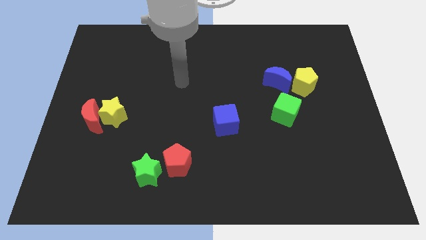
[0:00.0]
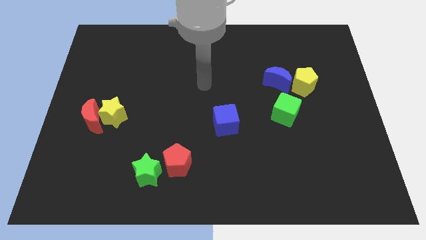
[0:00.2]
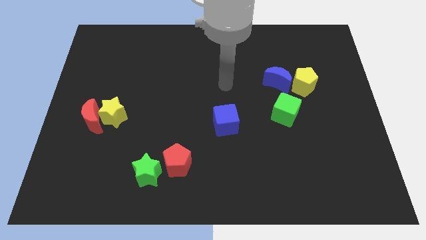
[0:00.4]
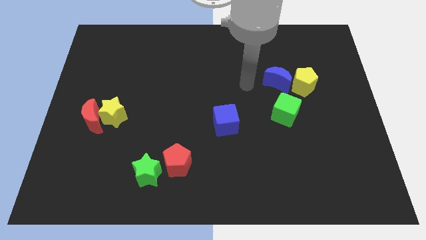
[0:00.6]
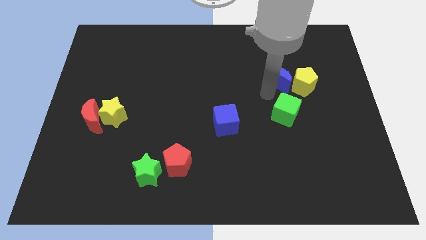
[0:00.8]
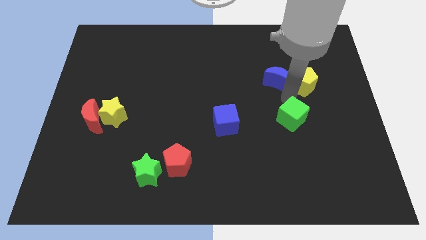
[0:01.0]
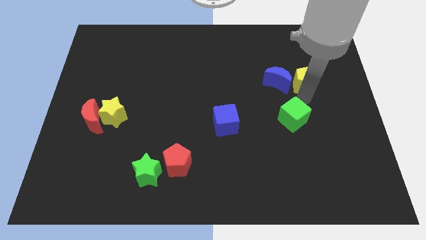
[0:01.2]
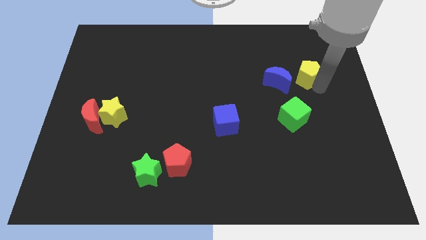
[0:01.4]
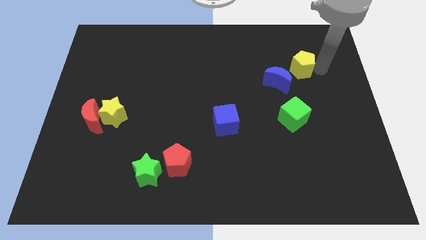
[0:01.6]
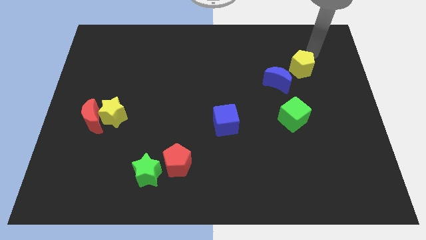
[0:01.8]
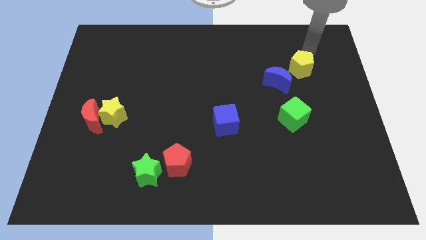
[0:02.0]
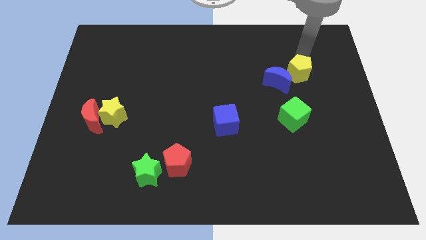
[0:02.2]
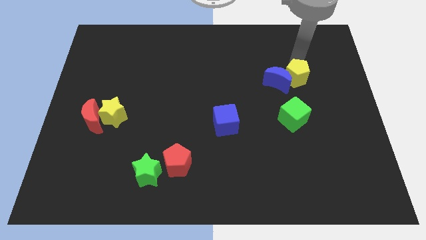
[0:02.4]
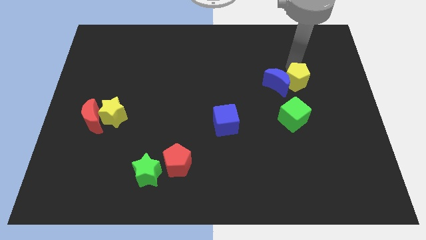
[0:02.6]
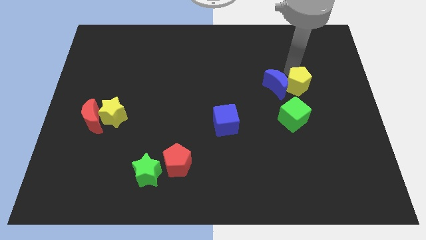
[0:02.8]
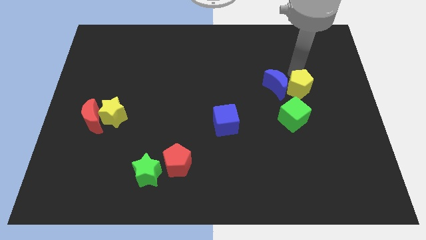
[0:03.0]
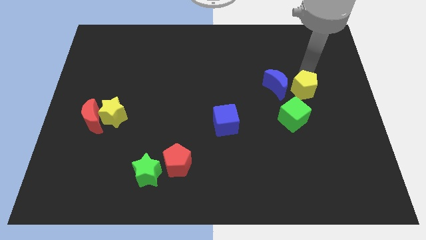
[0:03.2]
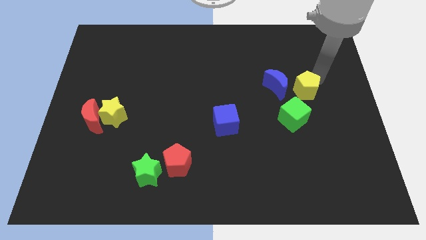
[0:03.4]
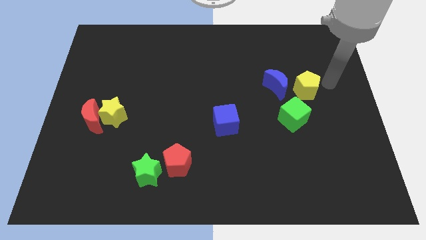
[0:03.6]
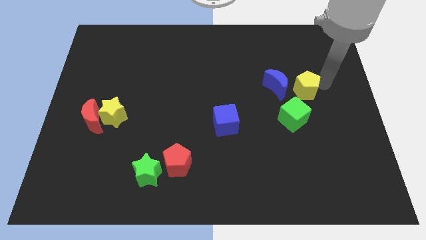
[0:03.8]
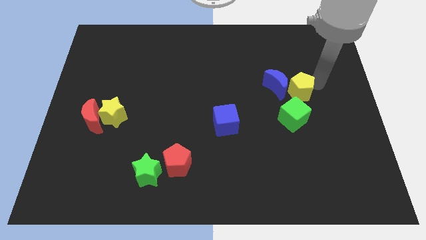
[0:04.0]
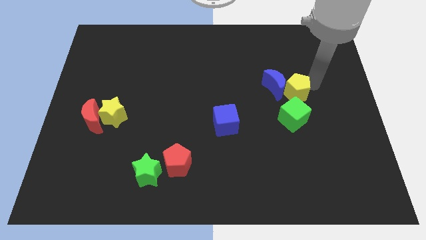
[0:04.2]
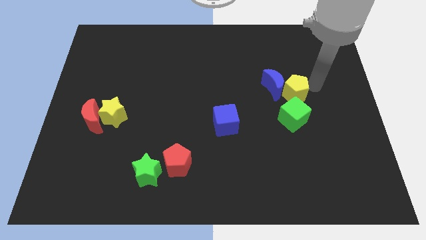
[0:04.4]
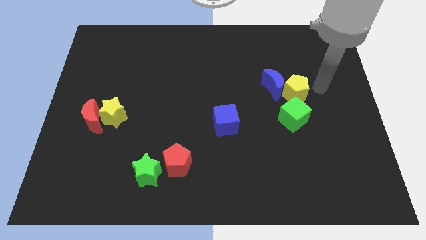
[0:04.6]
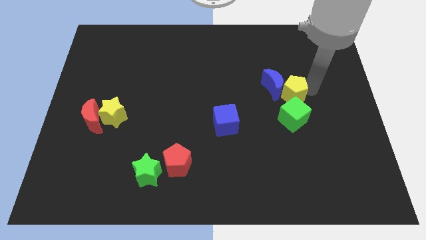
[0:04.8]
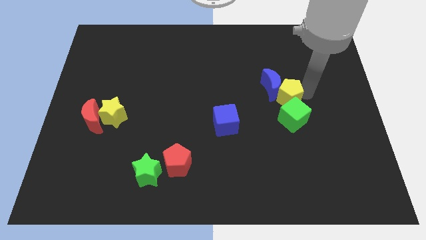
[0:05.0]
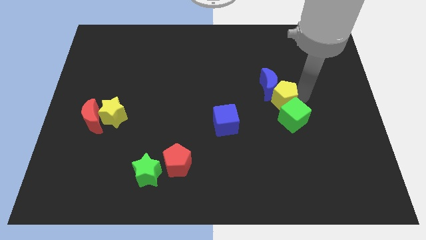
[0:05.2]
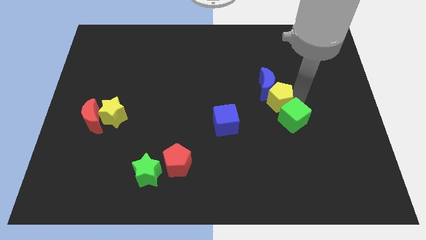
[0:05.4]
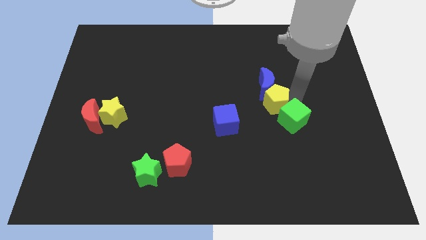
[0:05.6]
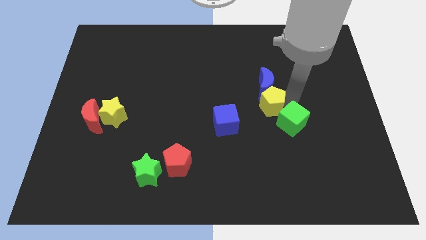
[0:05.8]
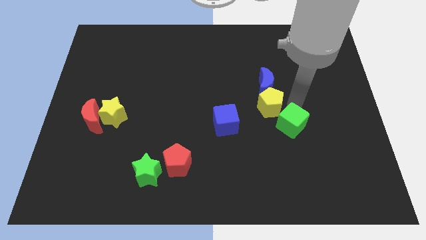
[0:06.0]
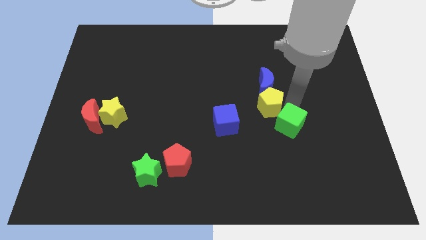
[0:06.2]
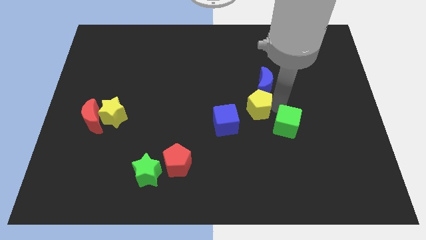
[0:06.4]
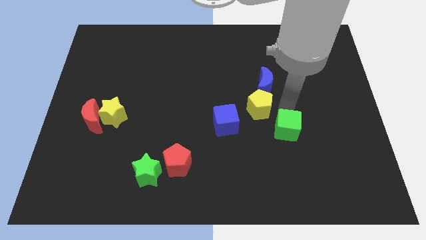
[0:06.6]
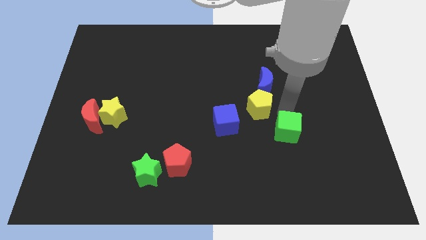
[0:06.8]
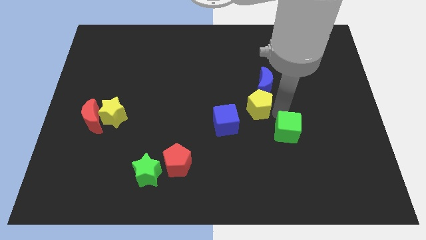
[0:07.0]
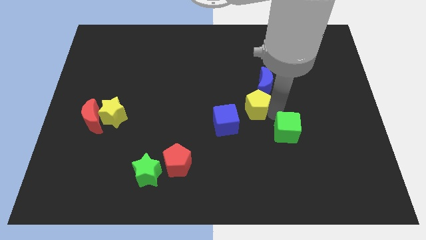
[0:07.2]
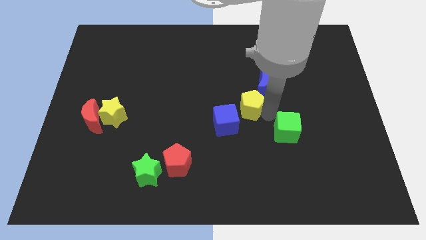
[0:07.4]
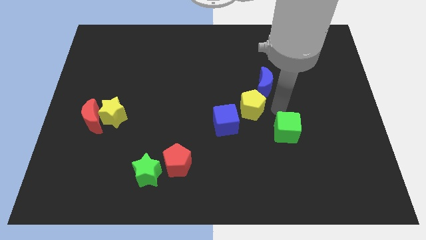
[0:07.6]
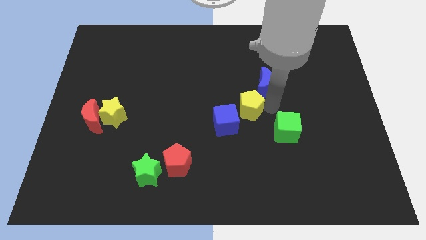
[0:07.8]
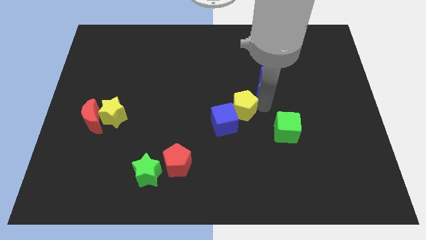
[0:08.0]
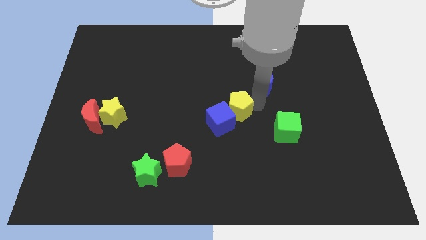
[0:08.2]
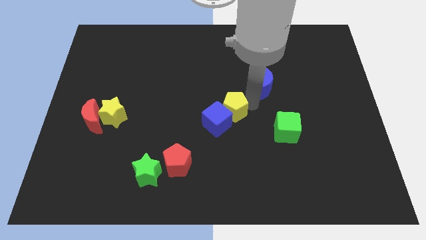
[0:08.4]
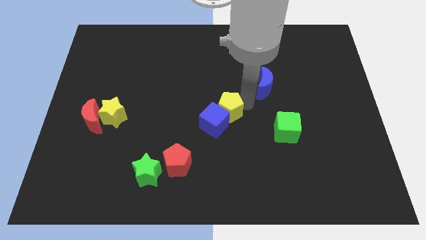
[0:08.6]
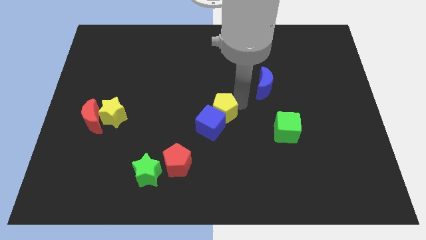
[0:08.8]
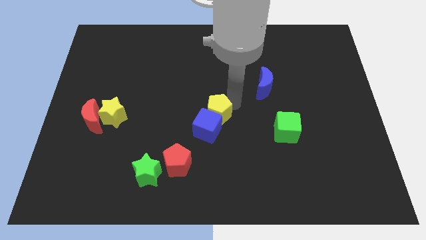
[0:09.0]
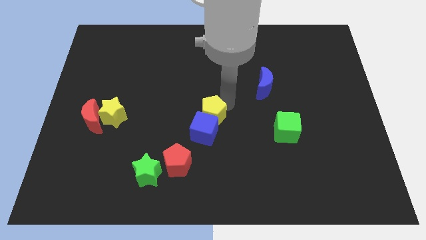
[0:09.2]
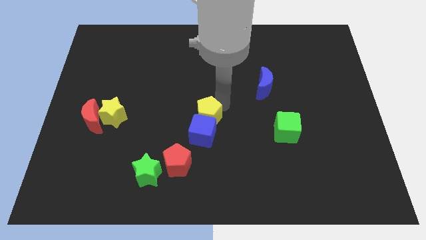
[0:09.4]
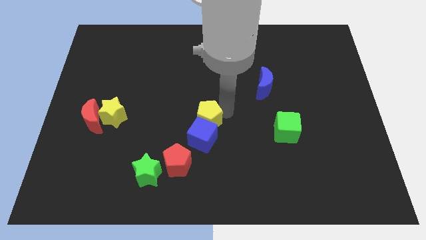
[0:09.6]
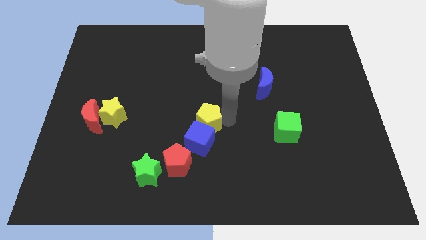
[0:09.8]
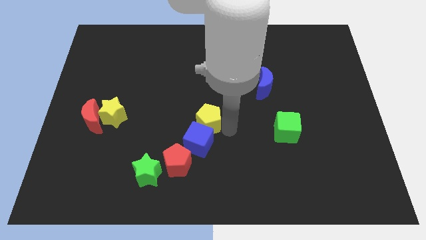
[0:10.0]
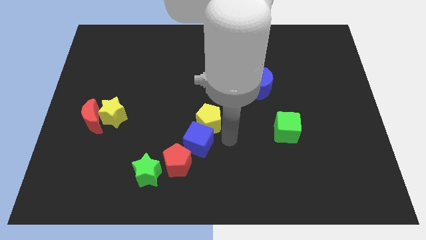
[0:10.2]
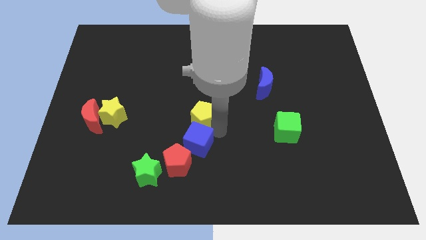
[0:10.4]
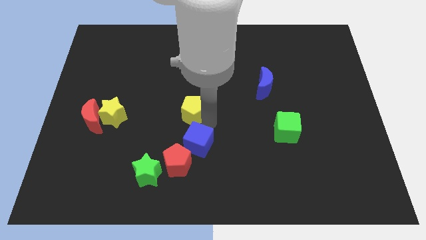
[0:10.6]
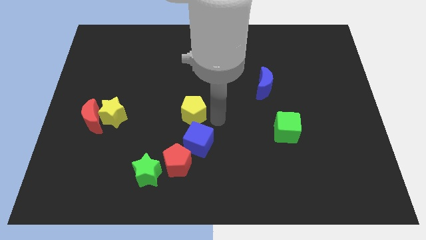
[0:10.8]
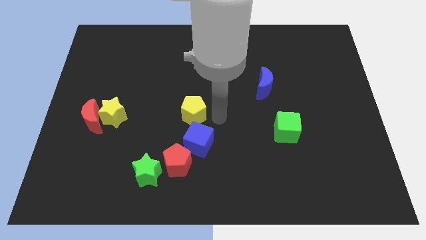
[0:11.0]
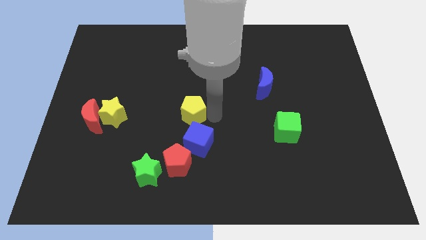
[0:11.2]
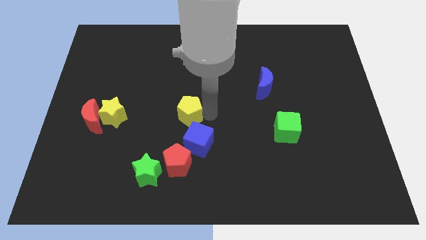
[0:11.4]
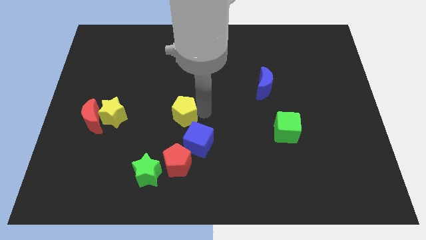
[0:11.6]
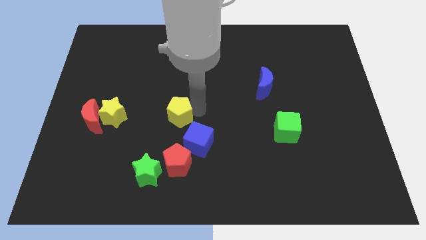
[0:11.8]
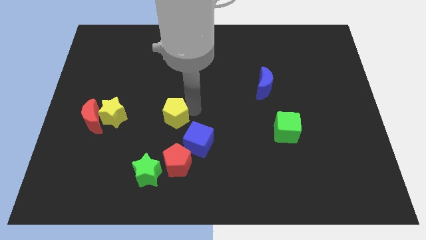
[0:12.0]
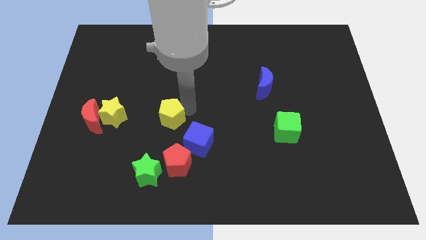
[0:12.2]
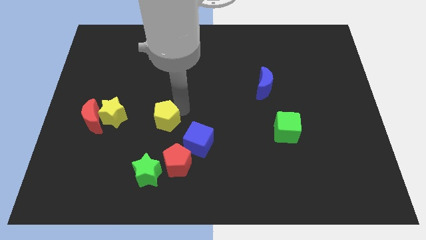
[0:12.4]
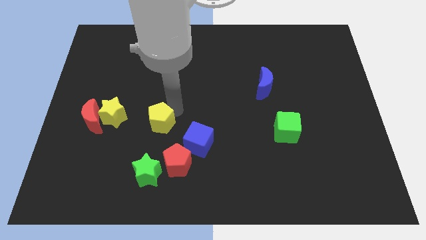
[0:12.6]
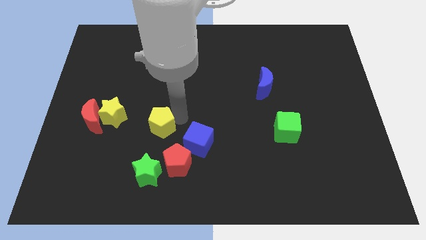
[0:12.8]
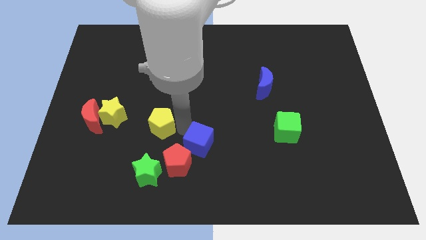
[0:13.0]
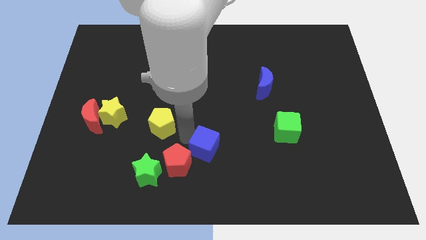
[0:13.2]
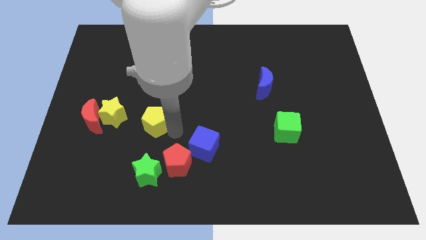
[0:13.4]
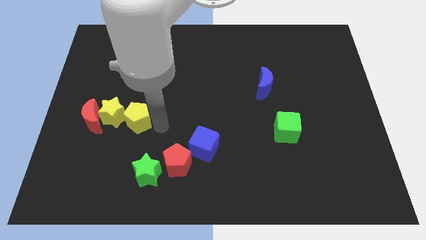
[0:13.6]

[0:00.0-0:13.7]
push the yellow pentagon towards the yellow star
